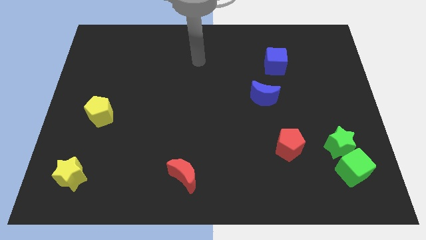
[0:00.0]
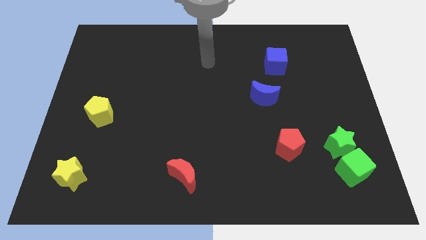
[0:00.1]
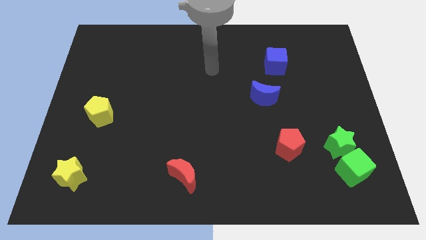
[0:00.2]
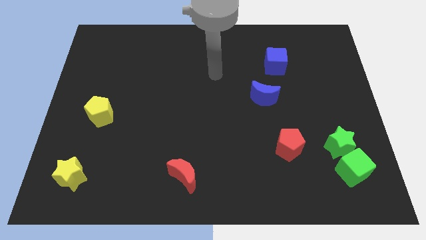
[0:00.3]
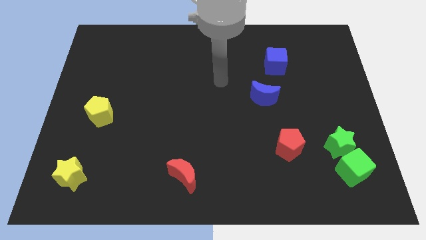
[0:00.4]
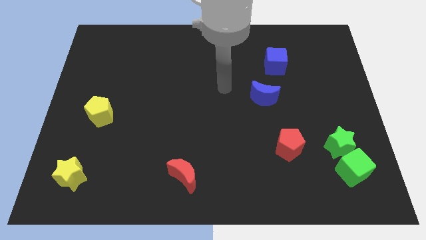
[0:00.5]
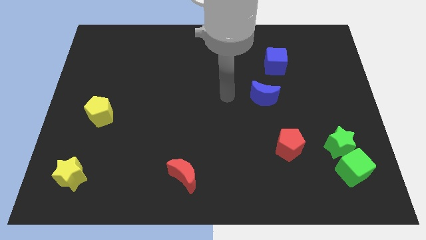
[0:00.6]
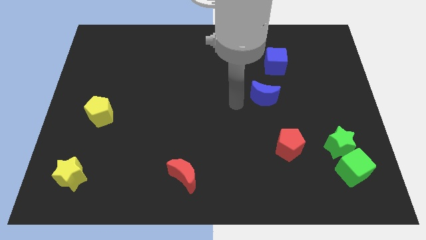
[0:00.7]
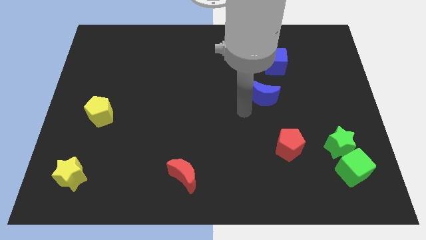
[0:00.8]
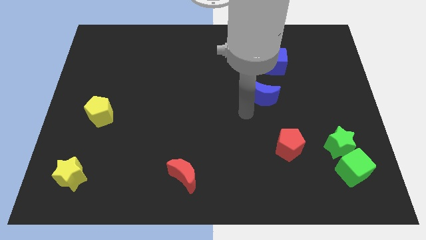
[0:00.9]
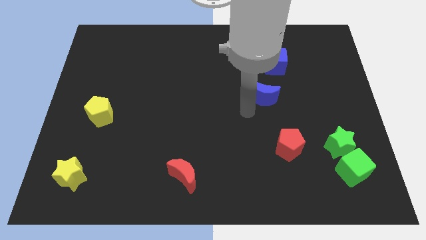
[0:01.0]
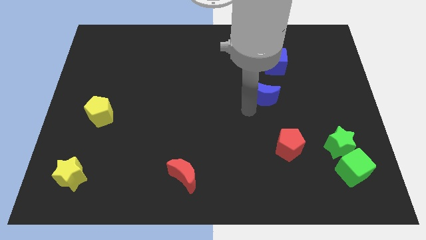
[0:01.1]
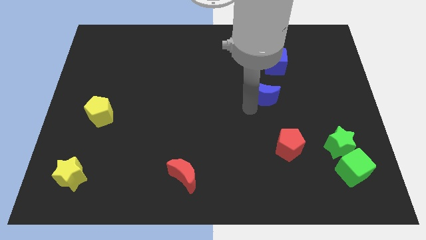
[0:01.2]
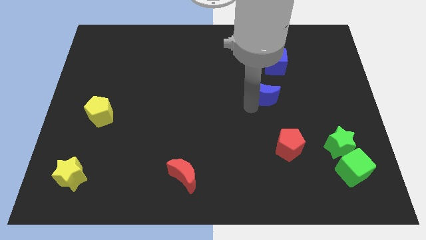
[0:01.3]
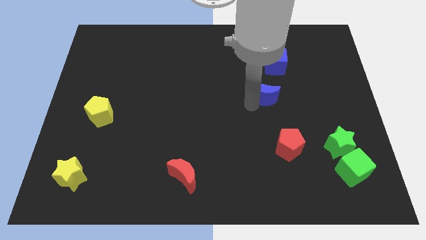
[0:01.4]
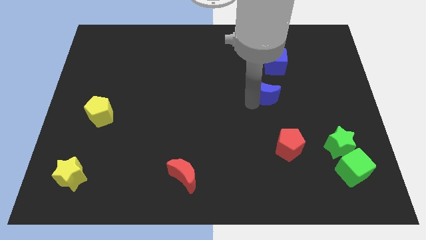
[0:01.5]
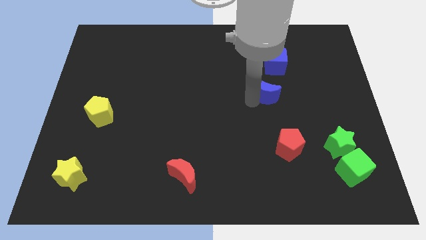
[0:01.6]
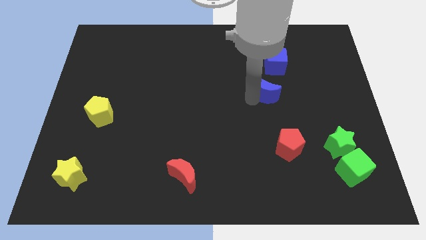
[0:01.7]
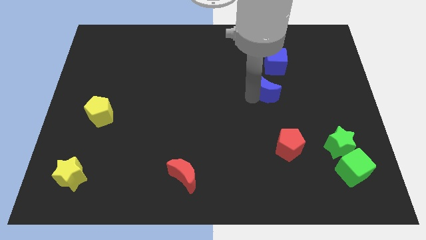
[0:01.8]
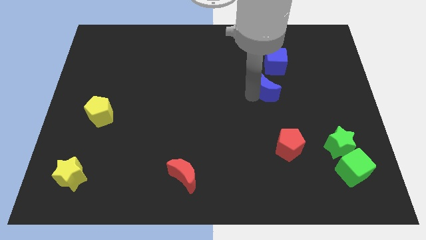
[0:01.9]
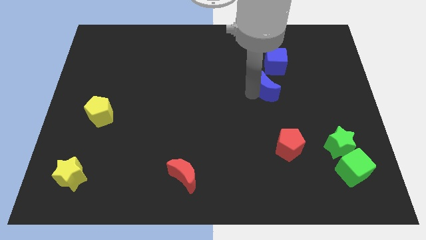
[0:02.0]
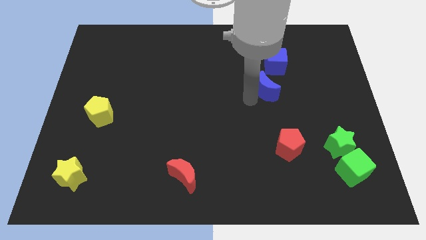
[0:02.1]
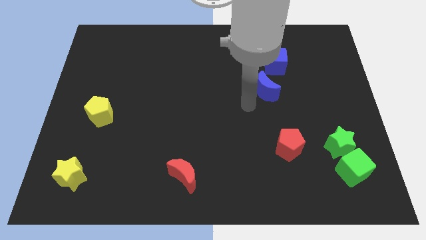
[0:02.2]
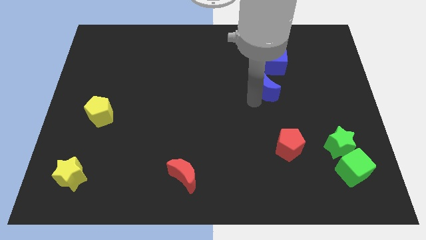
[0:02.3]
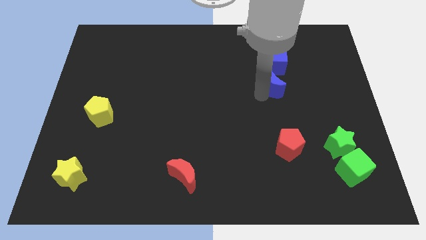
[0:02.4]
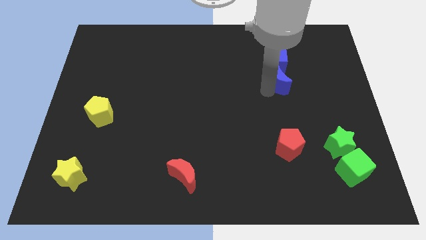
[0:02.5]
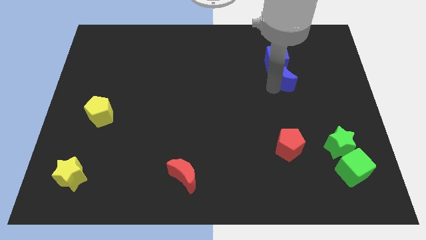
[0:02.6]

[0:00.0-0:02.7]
push the blue moon slightly up and right

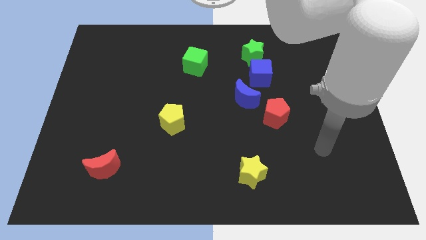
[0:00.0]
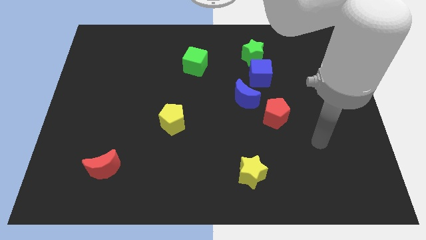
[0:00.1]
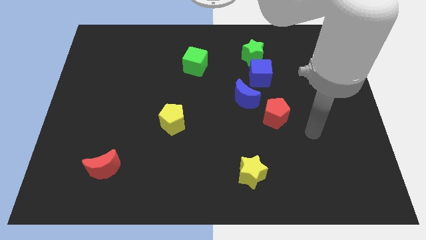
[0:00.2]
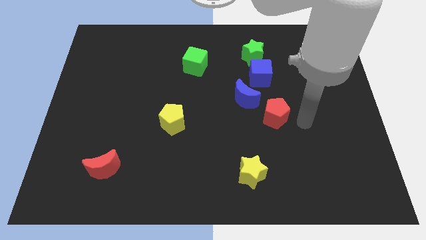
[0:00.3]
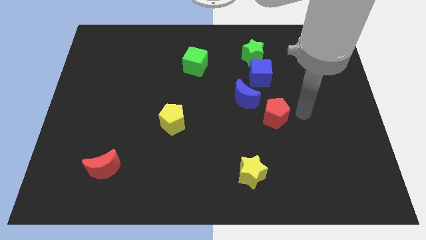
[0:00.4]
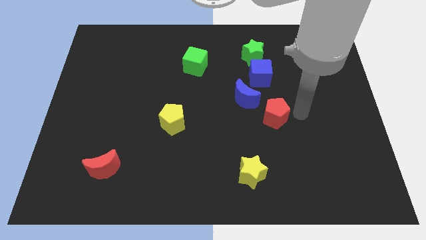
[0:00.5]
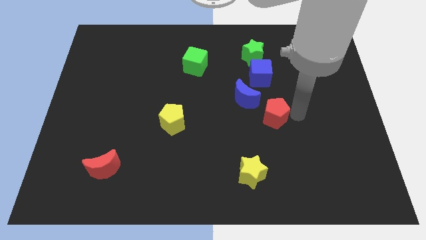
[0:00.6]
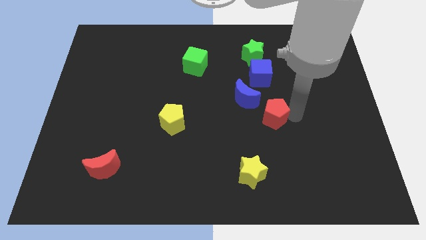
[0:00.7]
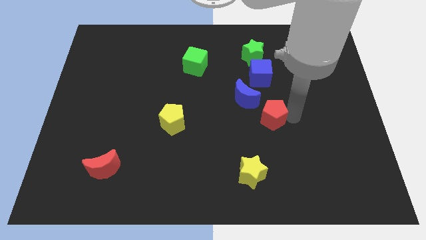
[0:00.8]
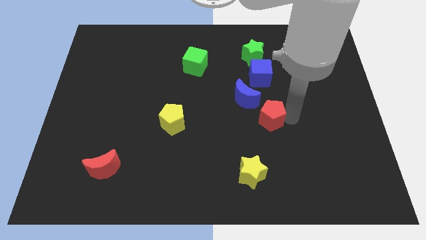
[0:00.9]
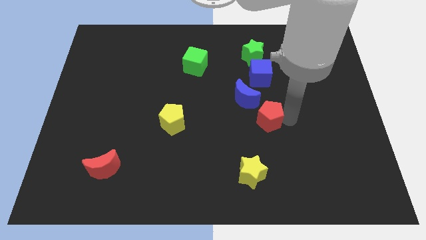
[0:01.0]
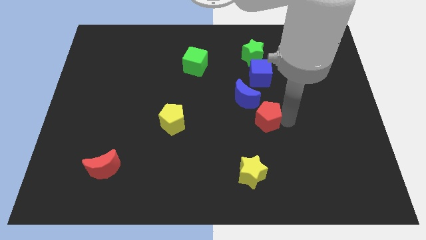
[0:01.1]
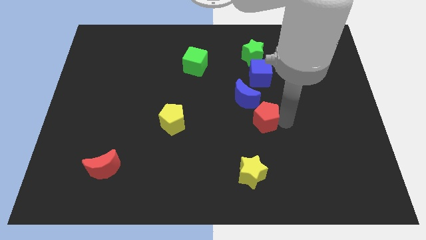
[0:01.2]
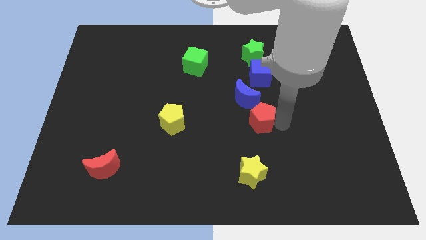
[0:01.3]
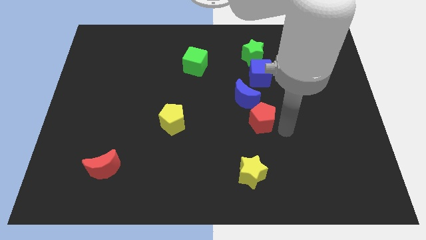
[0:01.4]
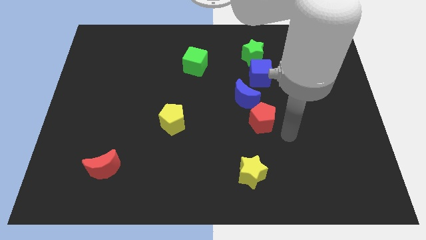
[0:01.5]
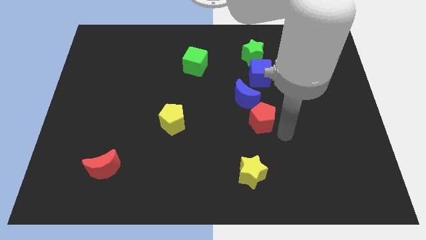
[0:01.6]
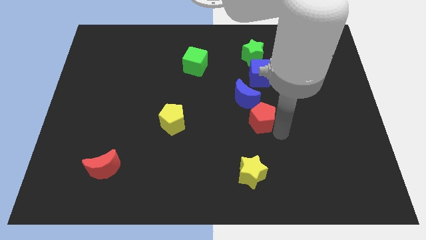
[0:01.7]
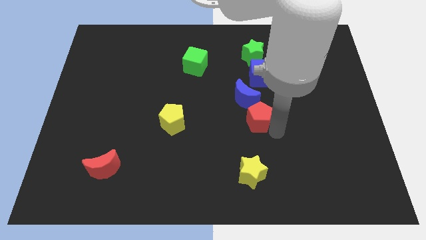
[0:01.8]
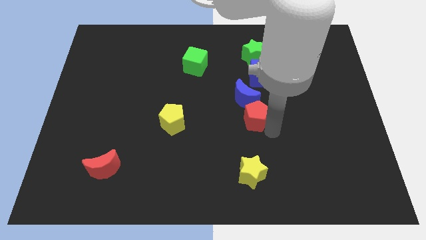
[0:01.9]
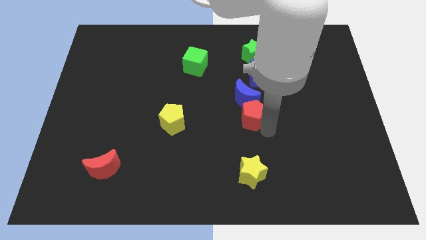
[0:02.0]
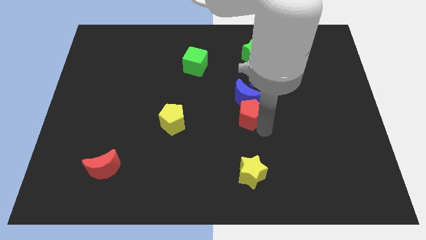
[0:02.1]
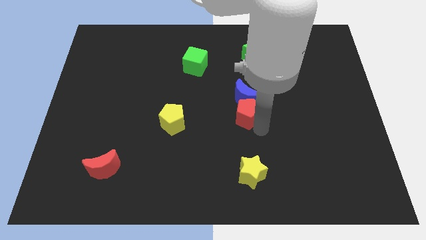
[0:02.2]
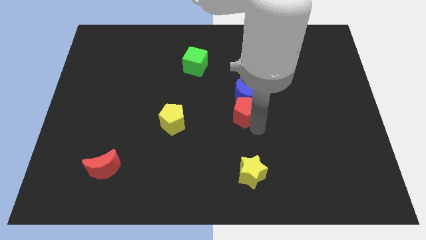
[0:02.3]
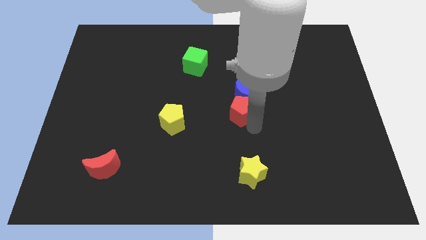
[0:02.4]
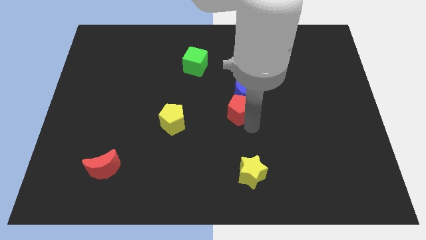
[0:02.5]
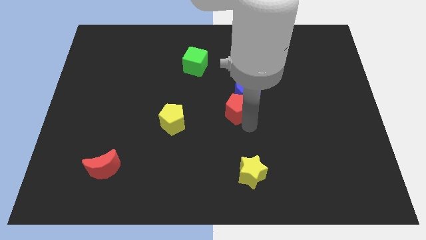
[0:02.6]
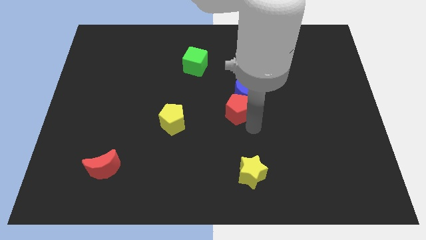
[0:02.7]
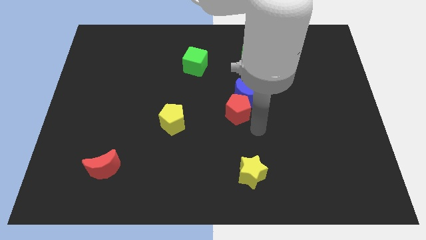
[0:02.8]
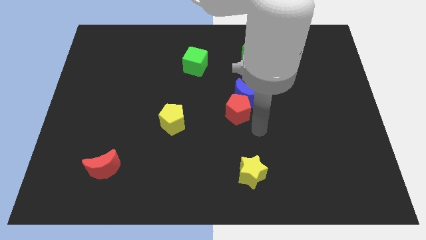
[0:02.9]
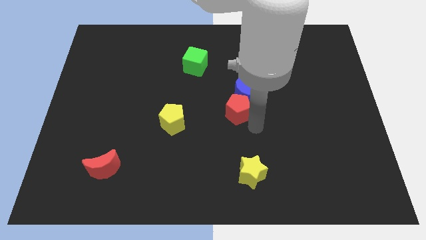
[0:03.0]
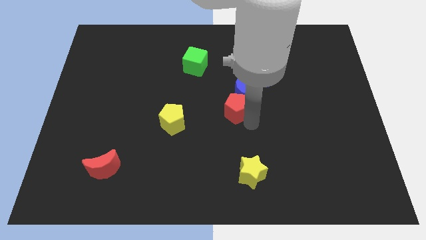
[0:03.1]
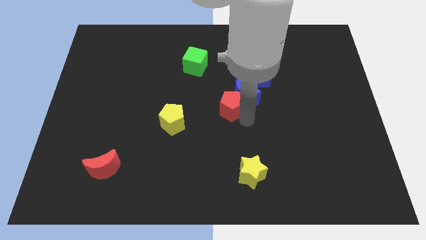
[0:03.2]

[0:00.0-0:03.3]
slide the red pentagon a little up and left diagonally

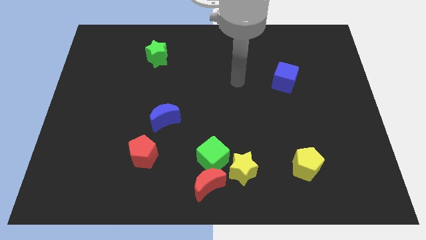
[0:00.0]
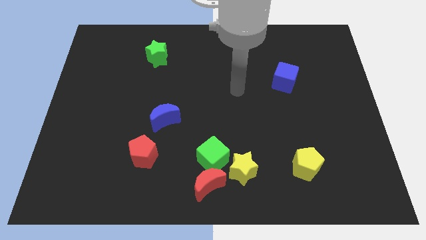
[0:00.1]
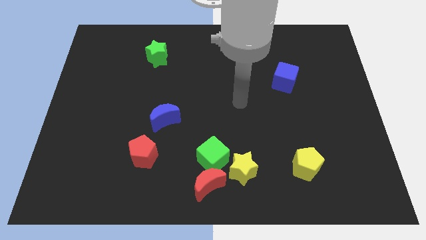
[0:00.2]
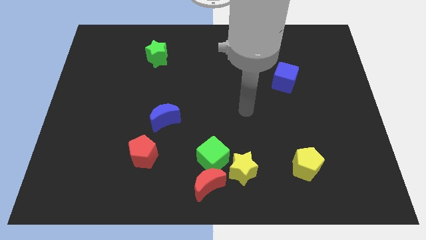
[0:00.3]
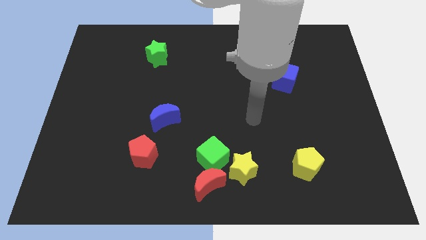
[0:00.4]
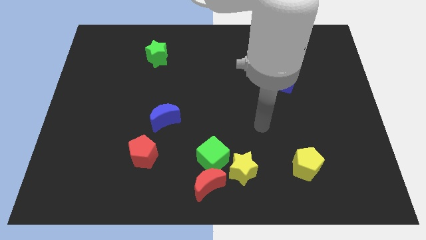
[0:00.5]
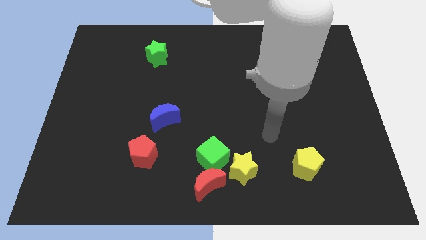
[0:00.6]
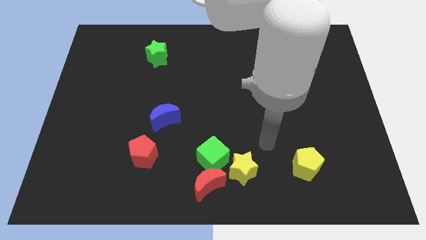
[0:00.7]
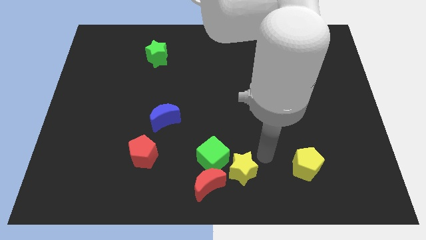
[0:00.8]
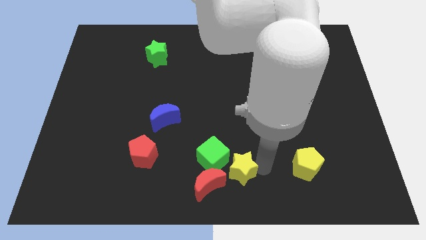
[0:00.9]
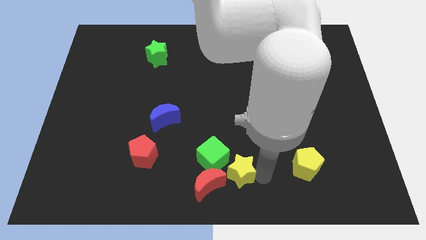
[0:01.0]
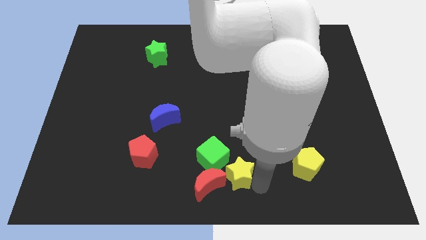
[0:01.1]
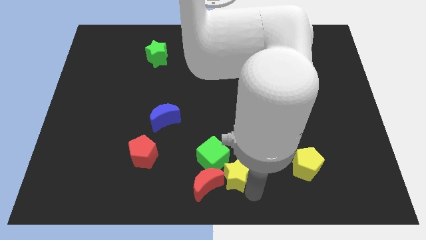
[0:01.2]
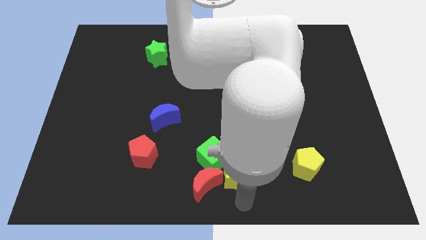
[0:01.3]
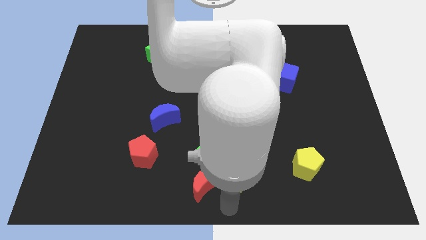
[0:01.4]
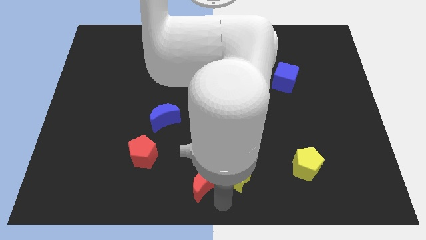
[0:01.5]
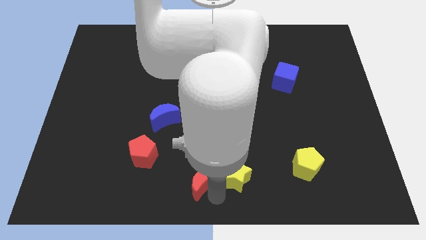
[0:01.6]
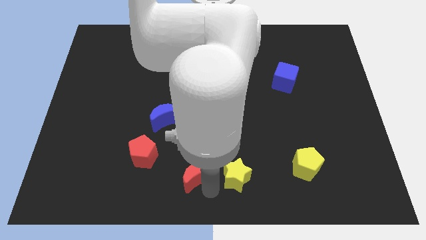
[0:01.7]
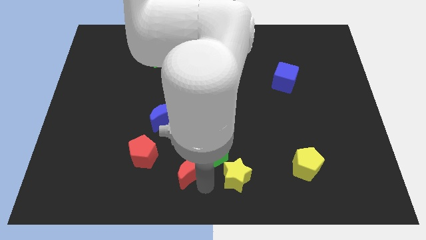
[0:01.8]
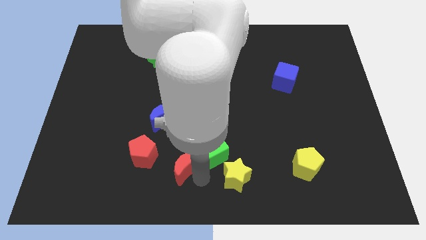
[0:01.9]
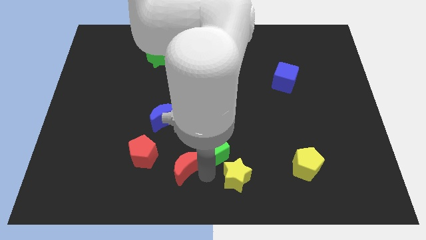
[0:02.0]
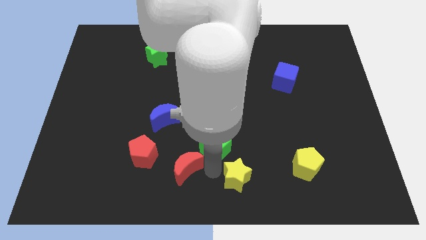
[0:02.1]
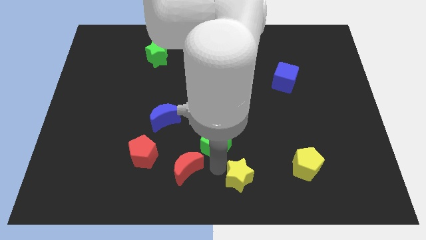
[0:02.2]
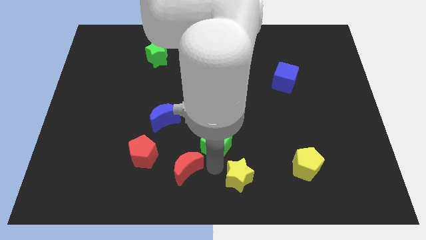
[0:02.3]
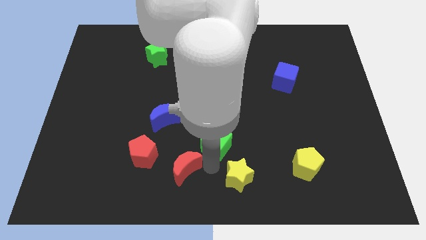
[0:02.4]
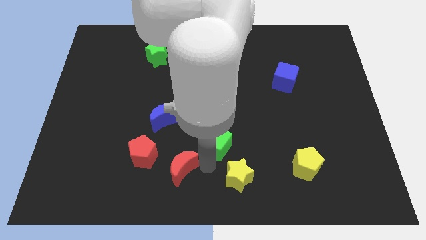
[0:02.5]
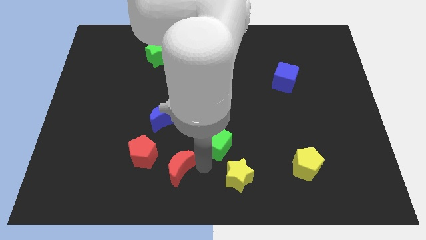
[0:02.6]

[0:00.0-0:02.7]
slide the red moon slightly diagonally upwards and left
